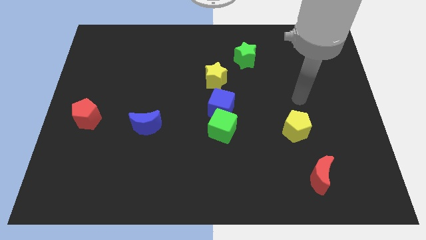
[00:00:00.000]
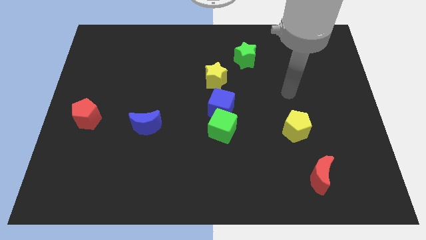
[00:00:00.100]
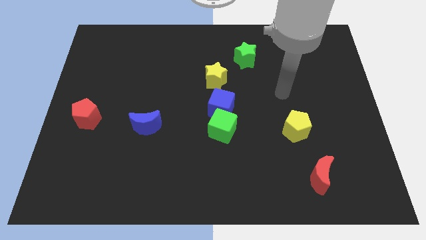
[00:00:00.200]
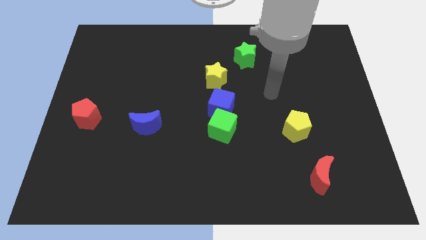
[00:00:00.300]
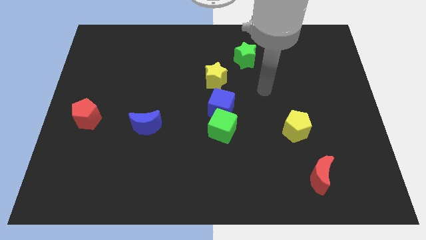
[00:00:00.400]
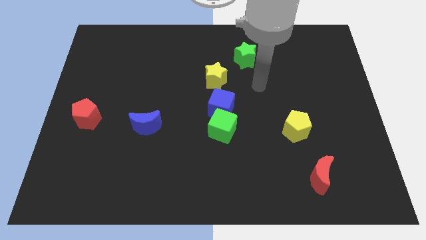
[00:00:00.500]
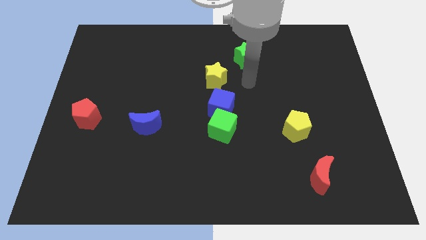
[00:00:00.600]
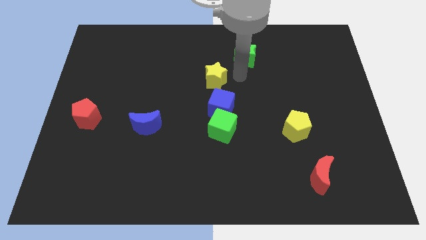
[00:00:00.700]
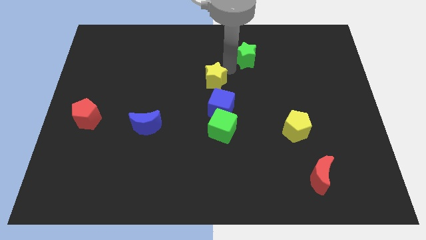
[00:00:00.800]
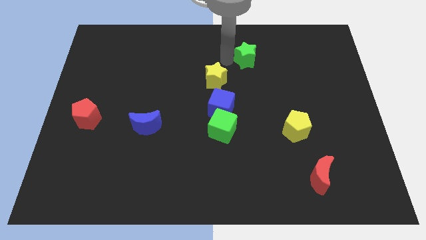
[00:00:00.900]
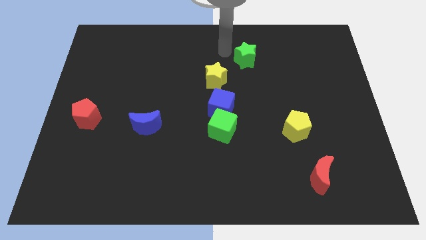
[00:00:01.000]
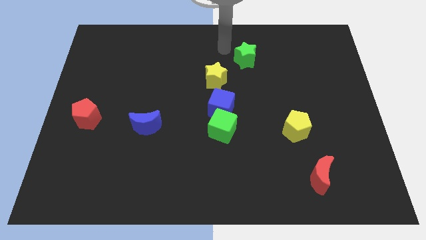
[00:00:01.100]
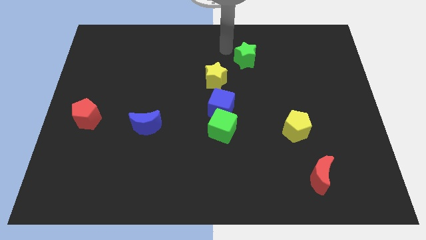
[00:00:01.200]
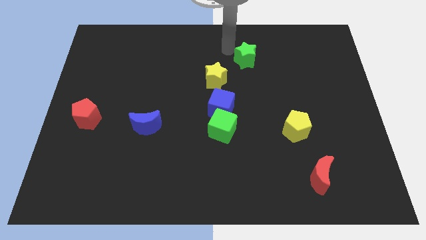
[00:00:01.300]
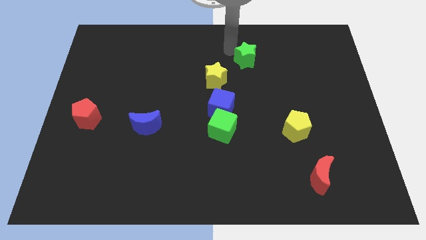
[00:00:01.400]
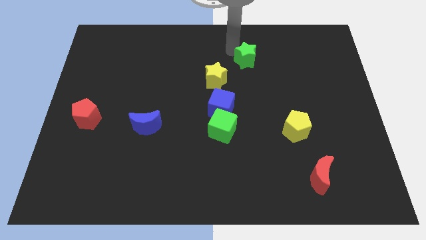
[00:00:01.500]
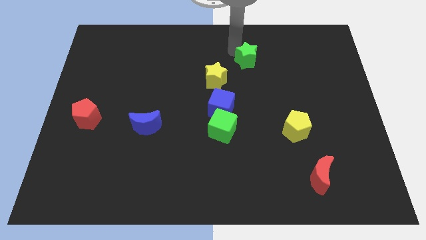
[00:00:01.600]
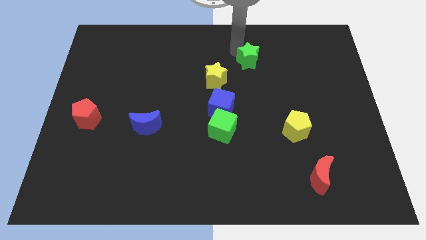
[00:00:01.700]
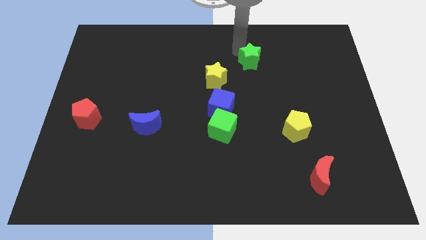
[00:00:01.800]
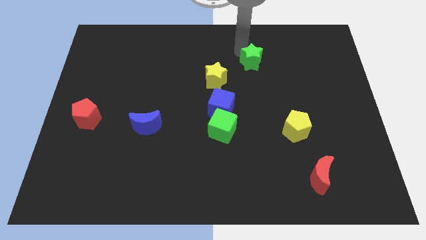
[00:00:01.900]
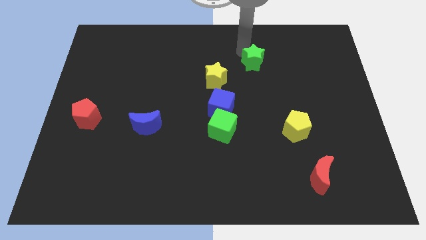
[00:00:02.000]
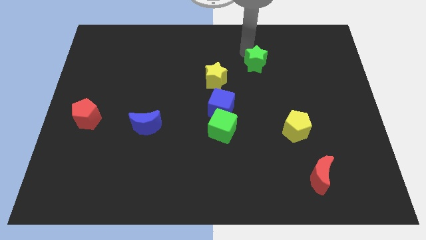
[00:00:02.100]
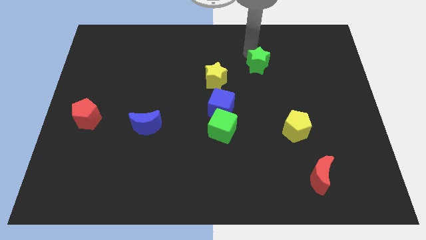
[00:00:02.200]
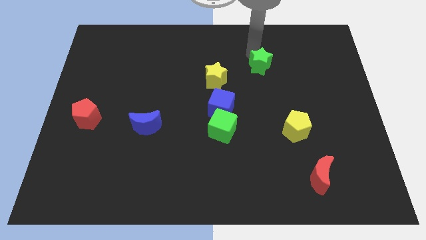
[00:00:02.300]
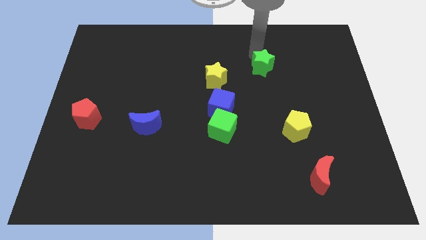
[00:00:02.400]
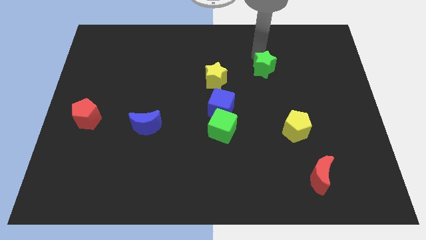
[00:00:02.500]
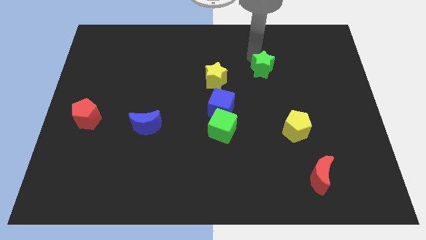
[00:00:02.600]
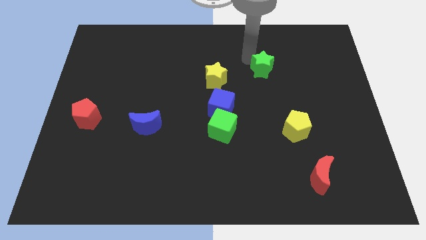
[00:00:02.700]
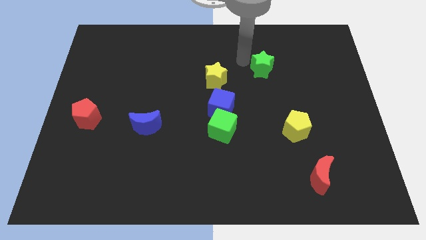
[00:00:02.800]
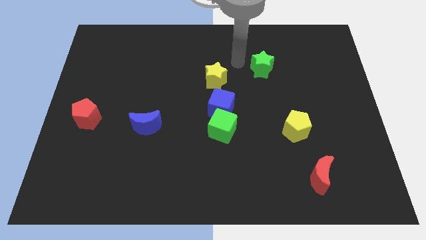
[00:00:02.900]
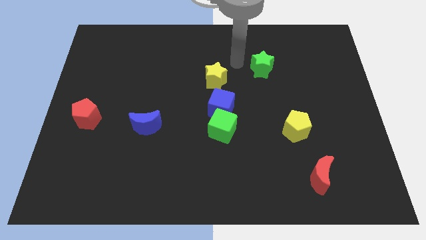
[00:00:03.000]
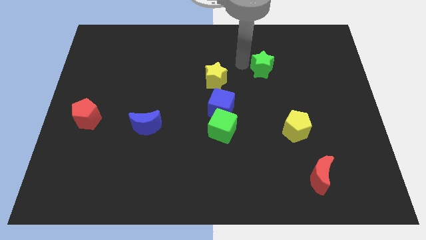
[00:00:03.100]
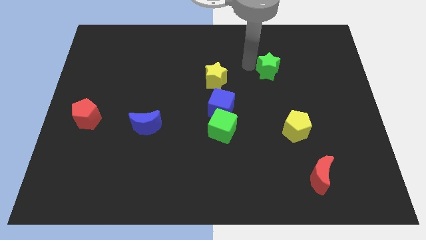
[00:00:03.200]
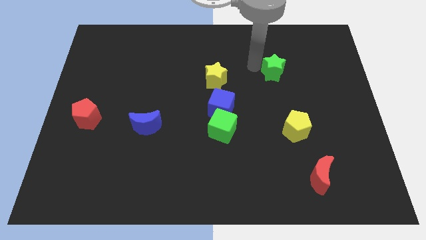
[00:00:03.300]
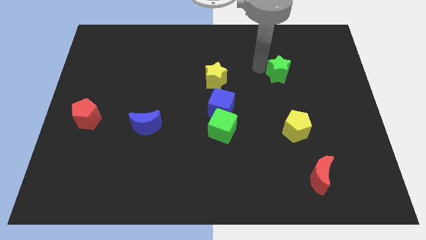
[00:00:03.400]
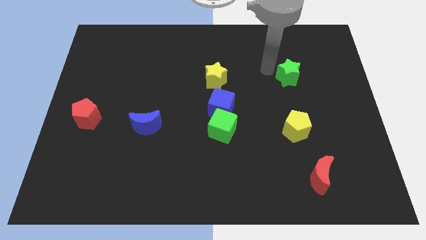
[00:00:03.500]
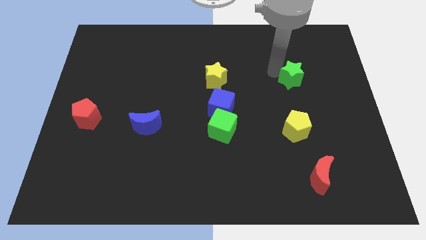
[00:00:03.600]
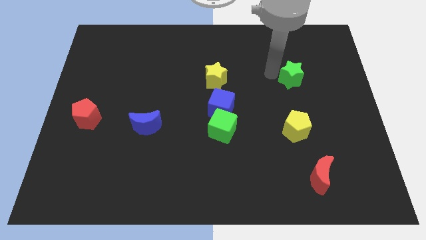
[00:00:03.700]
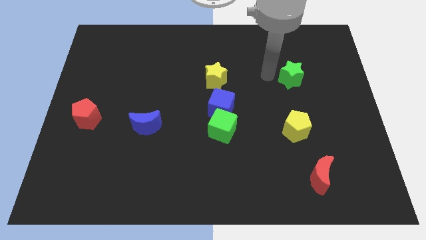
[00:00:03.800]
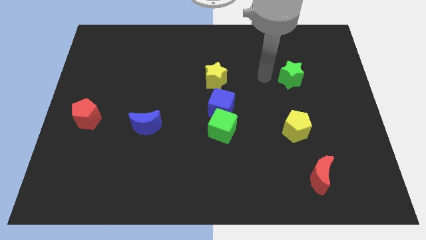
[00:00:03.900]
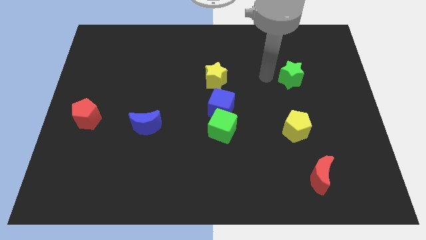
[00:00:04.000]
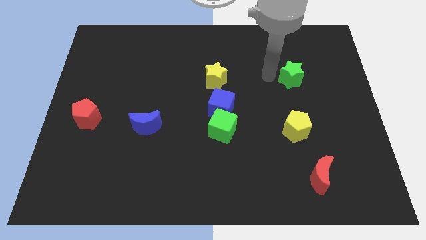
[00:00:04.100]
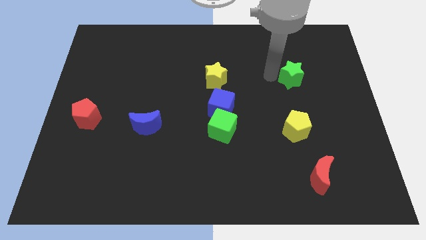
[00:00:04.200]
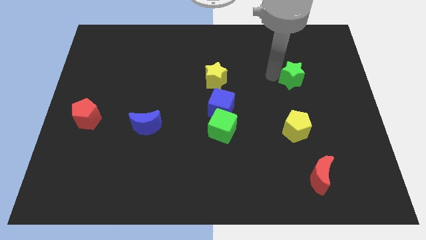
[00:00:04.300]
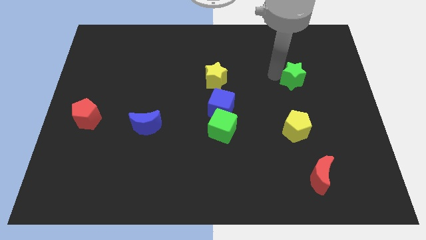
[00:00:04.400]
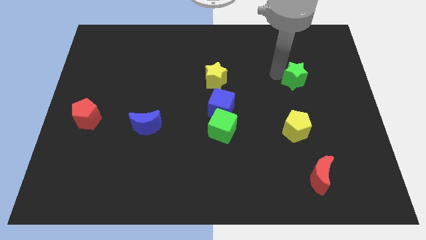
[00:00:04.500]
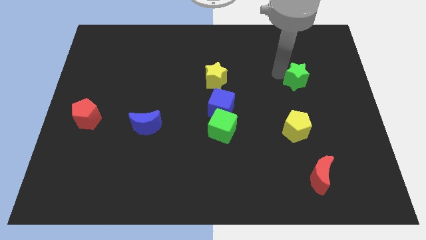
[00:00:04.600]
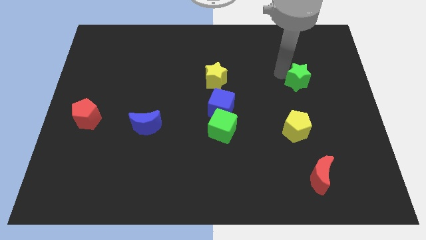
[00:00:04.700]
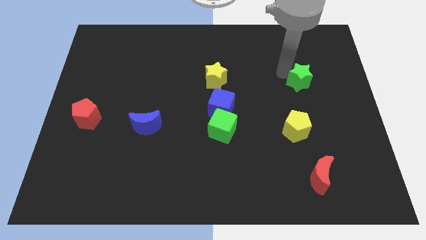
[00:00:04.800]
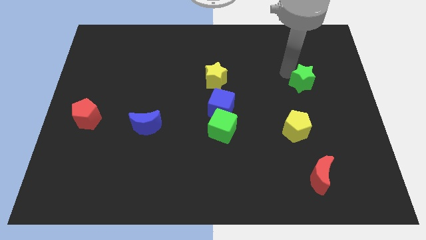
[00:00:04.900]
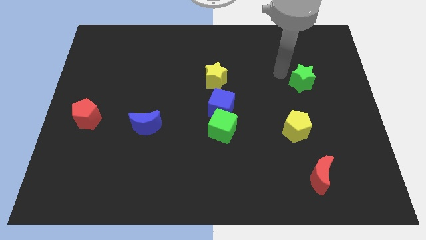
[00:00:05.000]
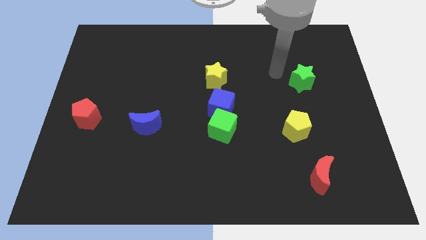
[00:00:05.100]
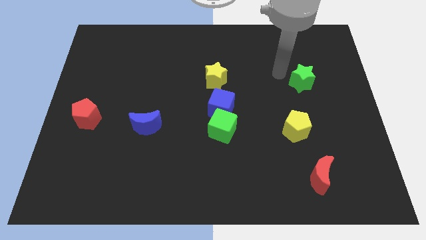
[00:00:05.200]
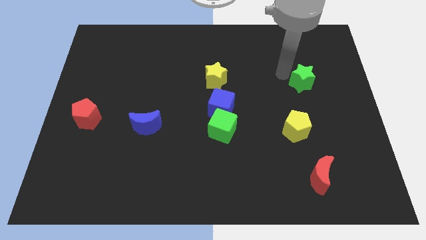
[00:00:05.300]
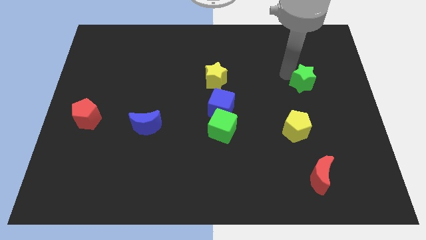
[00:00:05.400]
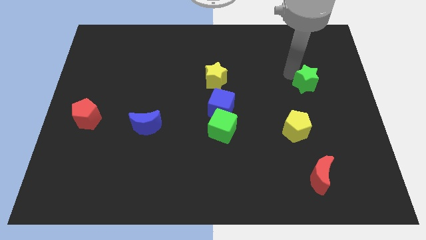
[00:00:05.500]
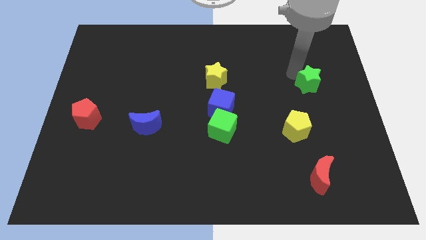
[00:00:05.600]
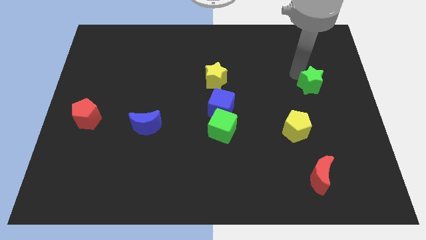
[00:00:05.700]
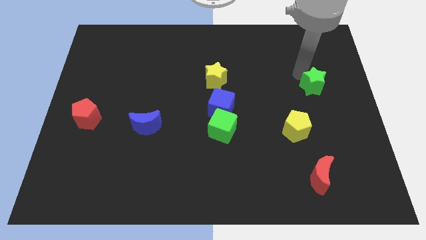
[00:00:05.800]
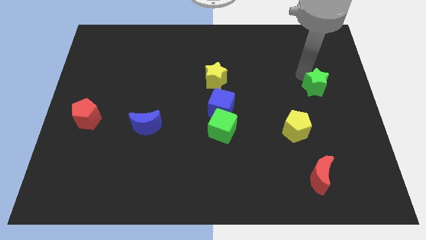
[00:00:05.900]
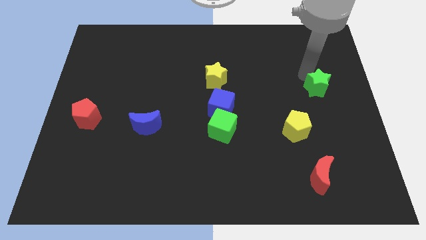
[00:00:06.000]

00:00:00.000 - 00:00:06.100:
move the green star to the right side of the board
